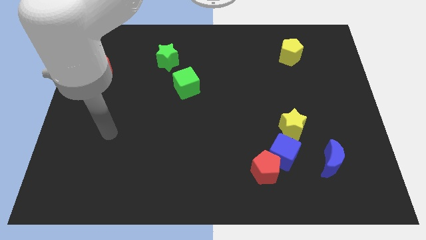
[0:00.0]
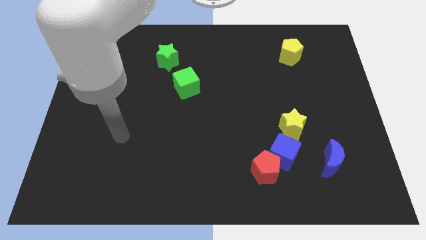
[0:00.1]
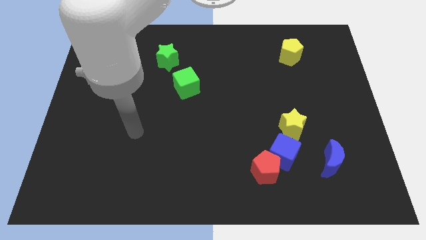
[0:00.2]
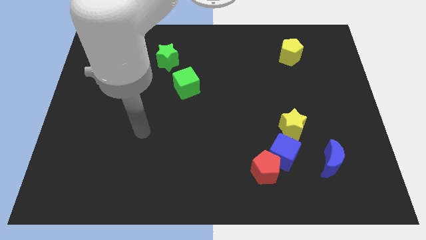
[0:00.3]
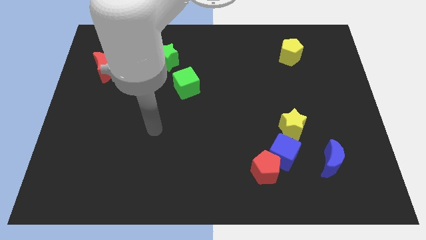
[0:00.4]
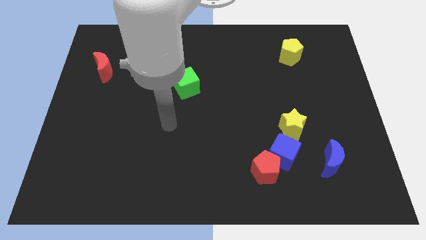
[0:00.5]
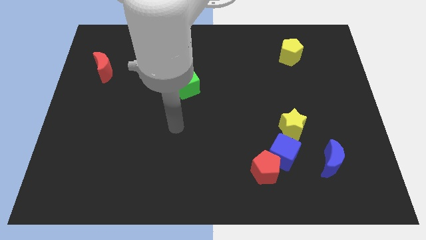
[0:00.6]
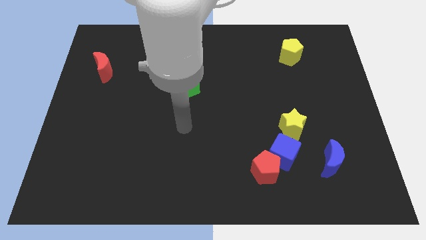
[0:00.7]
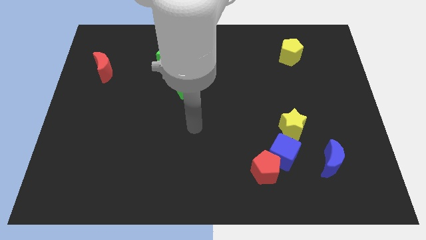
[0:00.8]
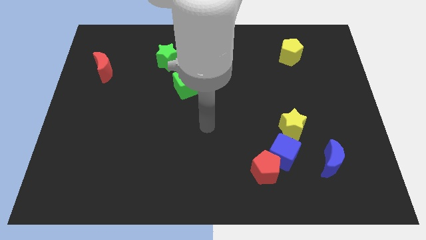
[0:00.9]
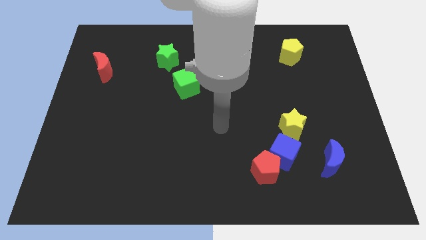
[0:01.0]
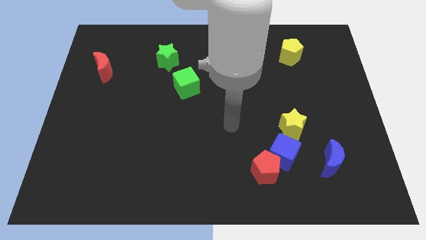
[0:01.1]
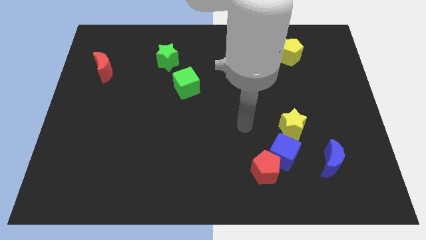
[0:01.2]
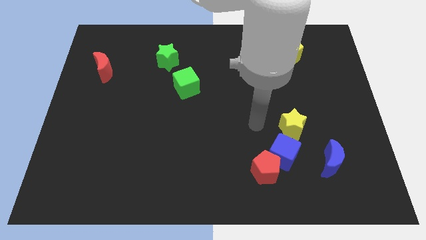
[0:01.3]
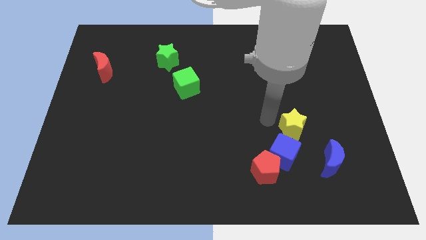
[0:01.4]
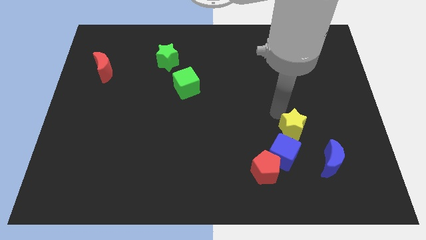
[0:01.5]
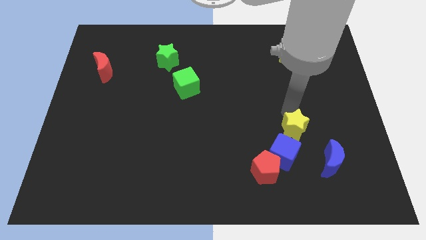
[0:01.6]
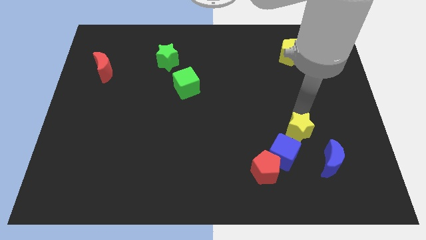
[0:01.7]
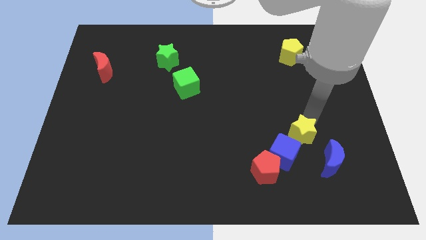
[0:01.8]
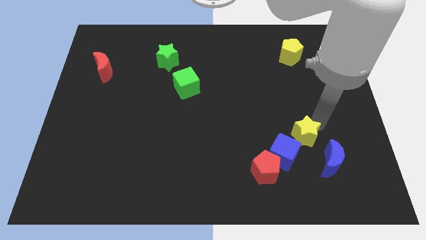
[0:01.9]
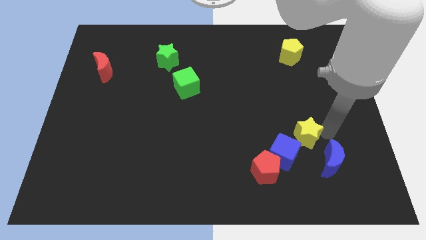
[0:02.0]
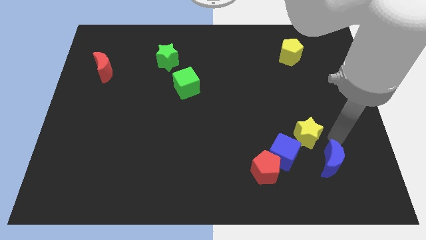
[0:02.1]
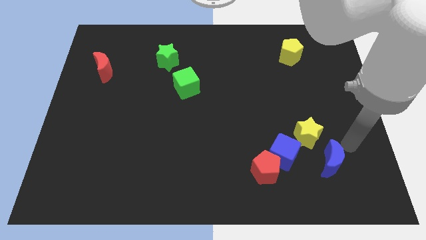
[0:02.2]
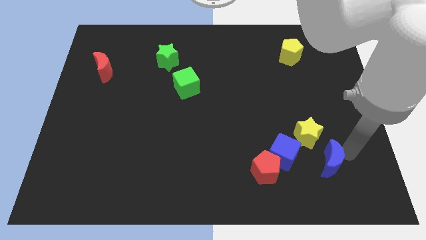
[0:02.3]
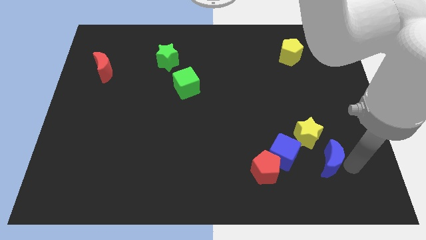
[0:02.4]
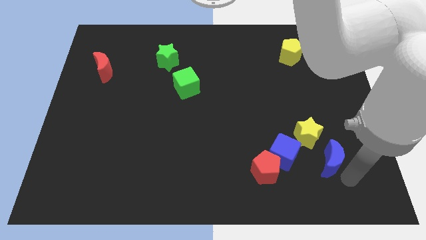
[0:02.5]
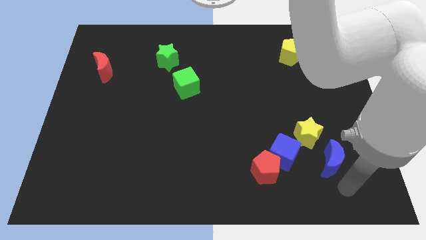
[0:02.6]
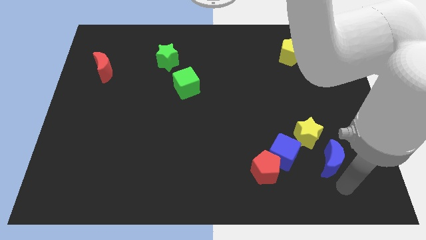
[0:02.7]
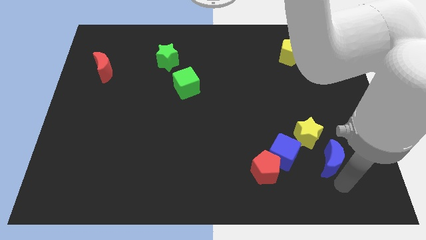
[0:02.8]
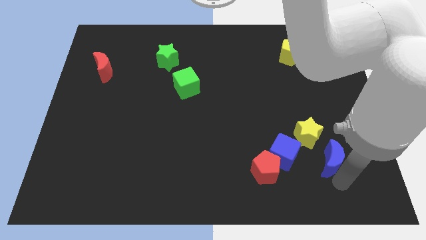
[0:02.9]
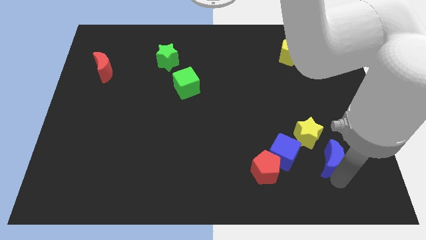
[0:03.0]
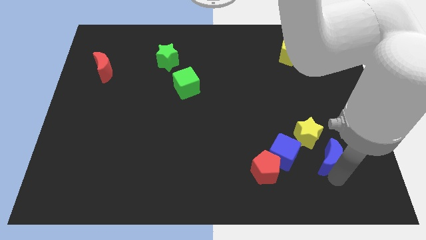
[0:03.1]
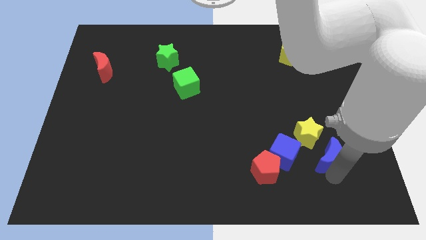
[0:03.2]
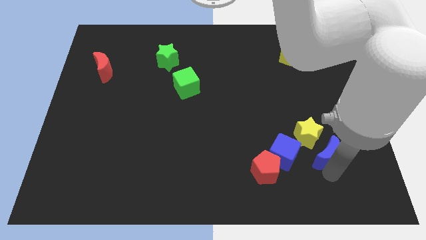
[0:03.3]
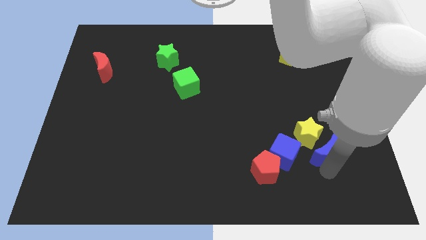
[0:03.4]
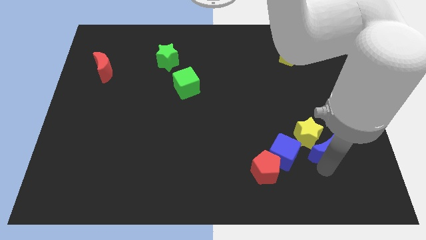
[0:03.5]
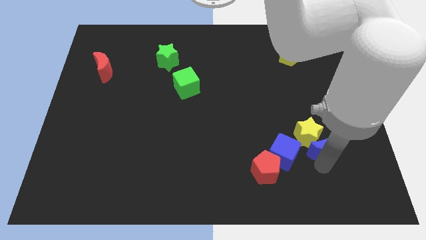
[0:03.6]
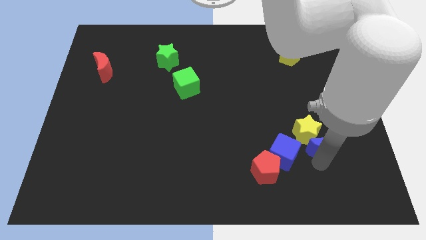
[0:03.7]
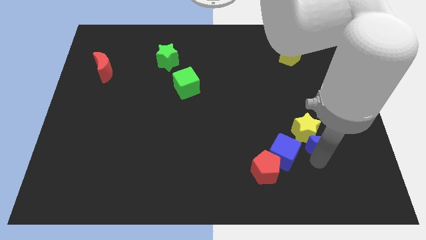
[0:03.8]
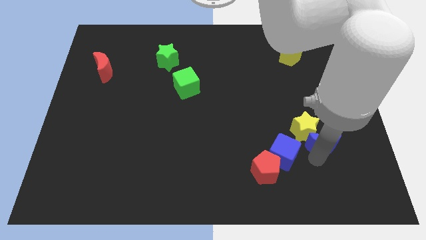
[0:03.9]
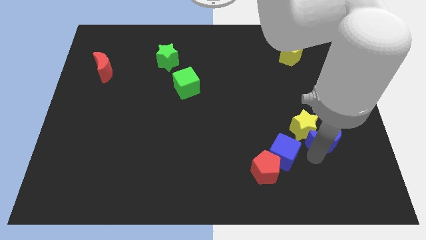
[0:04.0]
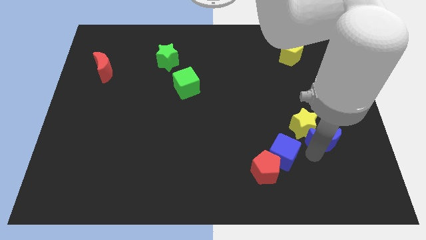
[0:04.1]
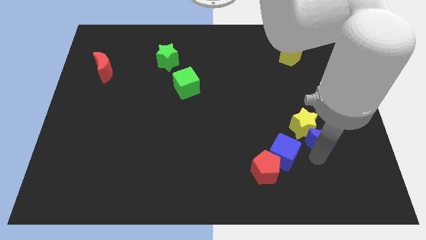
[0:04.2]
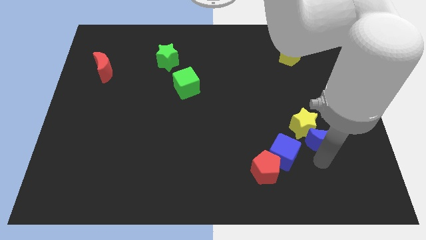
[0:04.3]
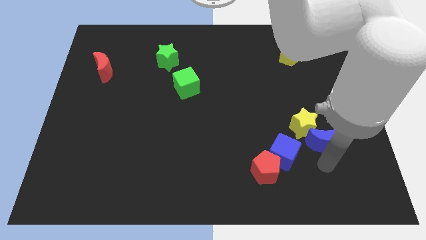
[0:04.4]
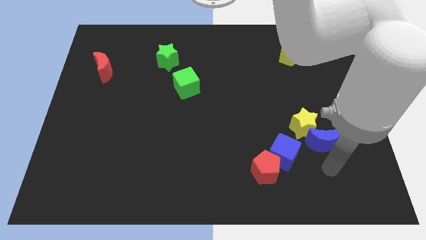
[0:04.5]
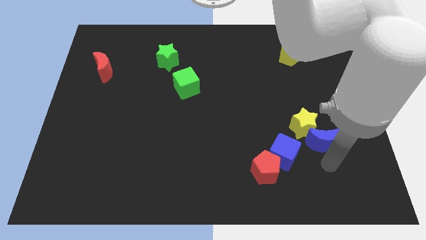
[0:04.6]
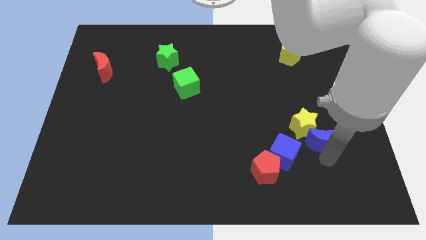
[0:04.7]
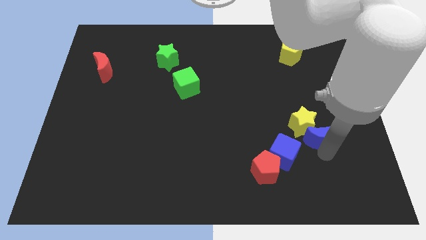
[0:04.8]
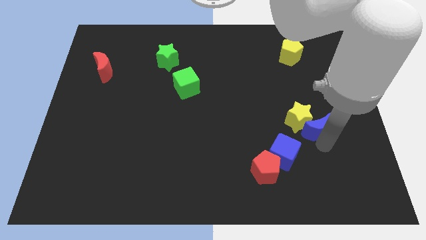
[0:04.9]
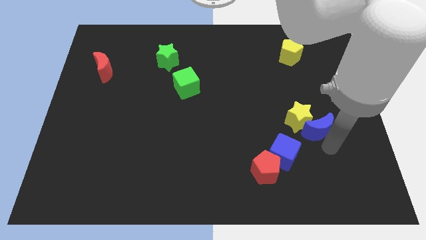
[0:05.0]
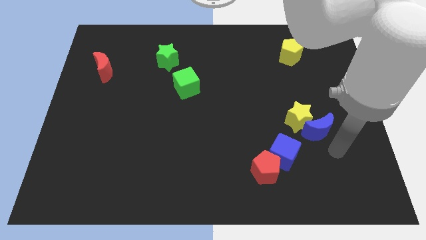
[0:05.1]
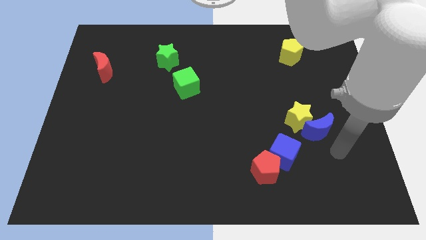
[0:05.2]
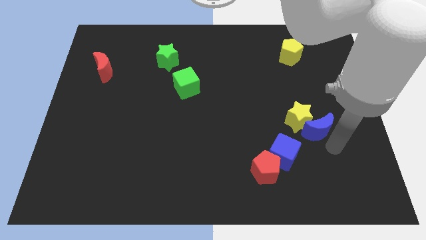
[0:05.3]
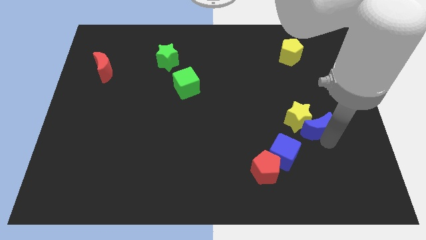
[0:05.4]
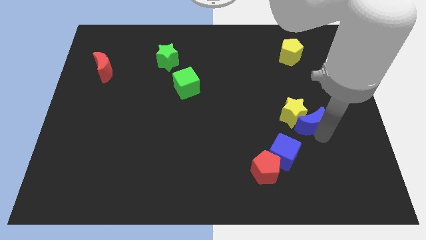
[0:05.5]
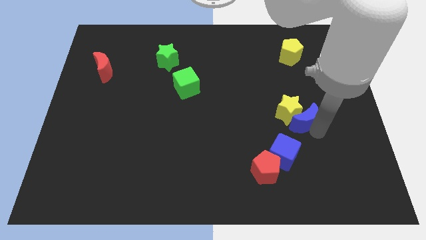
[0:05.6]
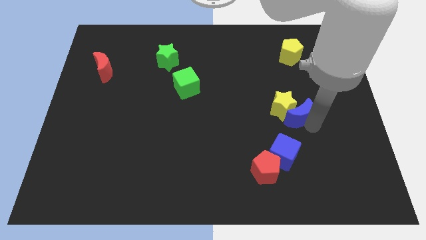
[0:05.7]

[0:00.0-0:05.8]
slide the blue moon to the top of the blue cube
